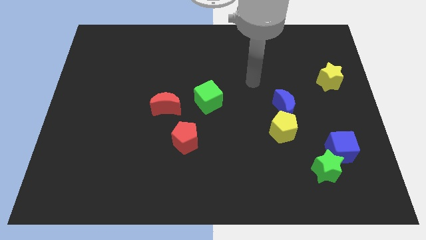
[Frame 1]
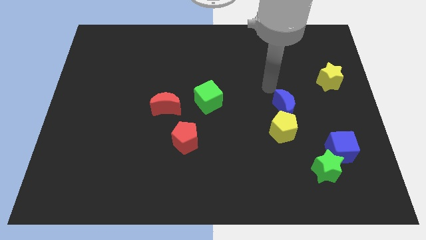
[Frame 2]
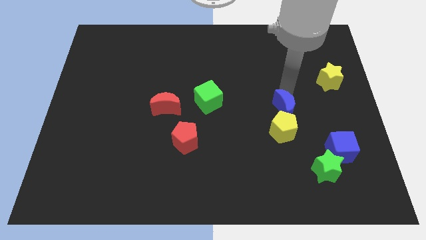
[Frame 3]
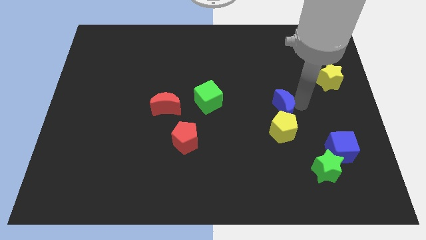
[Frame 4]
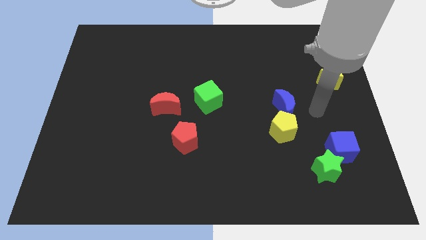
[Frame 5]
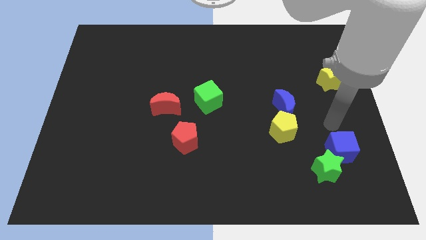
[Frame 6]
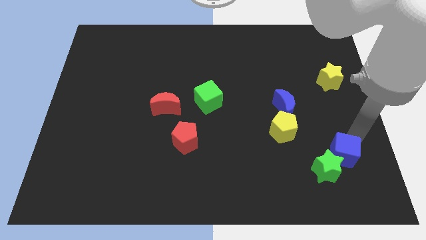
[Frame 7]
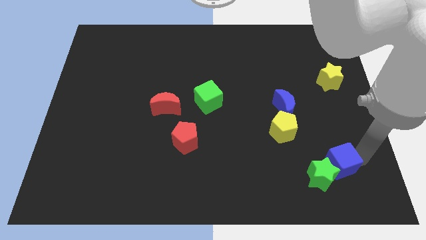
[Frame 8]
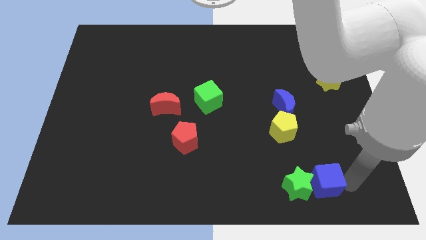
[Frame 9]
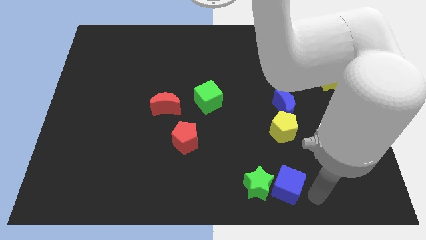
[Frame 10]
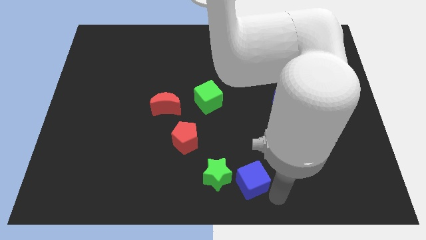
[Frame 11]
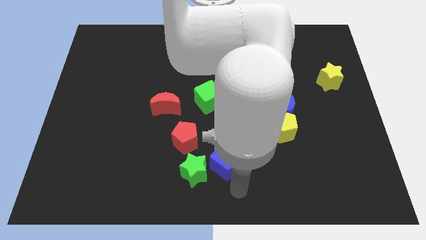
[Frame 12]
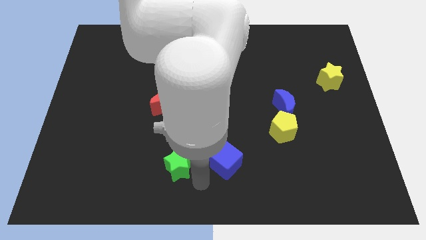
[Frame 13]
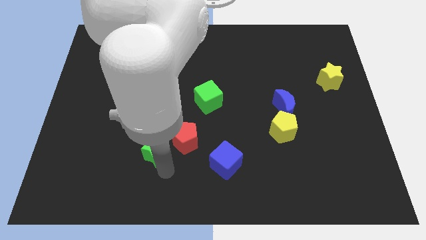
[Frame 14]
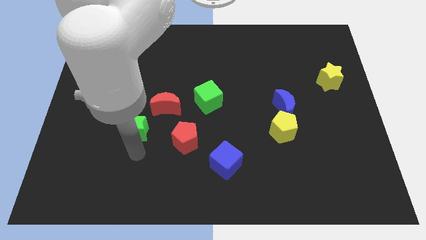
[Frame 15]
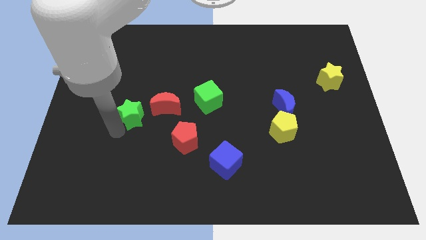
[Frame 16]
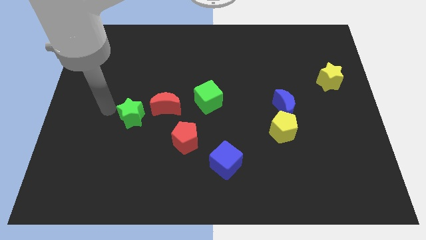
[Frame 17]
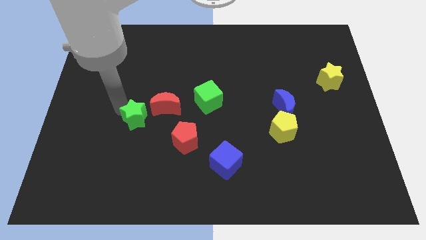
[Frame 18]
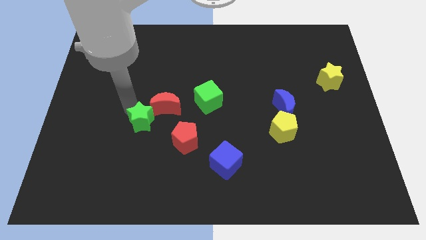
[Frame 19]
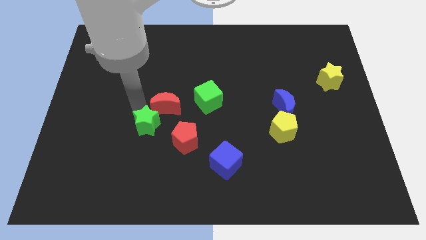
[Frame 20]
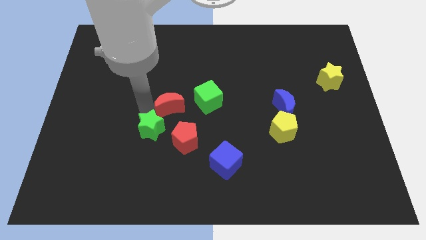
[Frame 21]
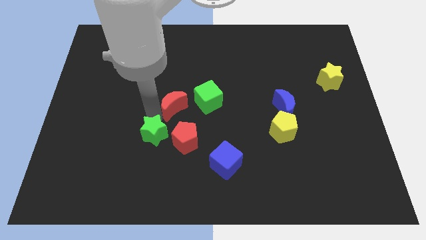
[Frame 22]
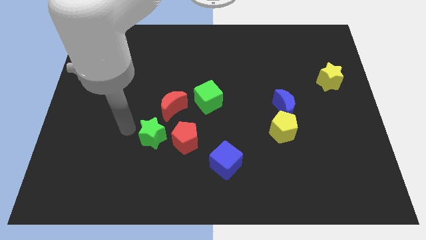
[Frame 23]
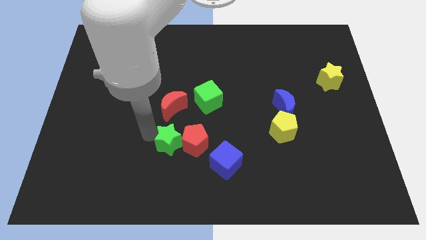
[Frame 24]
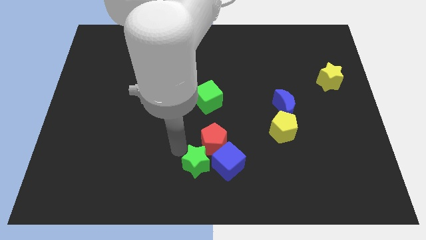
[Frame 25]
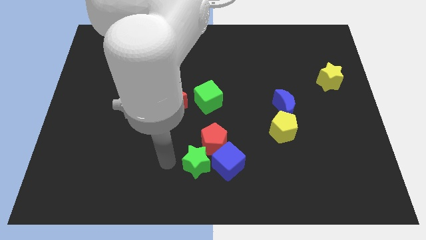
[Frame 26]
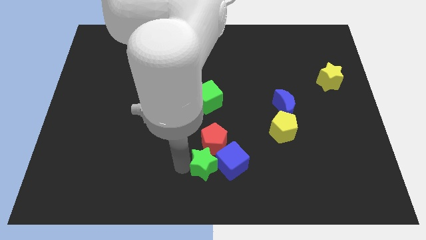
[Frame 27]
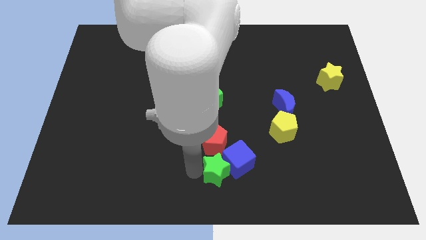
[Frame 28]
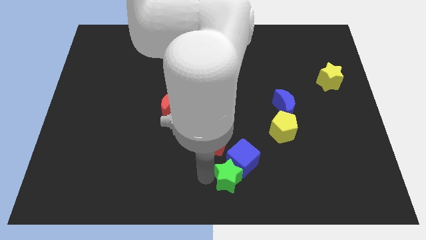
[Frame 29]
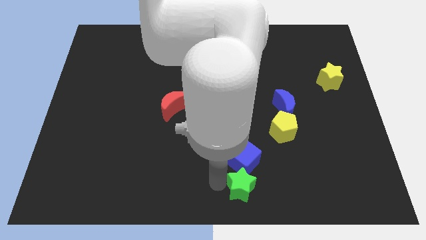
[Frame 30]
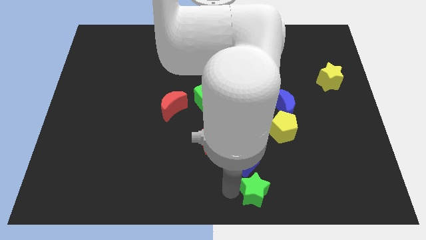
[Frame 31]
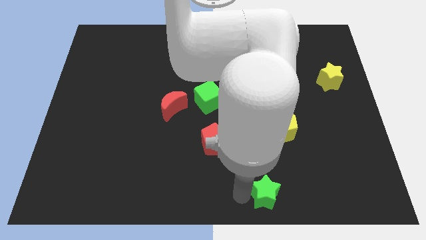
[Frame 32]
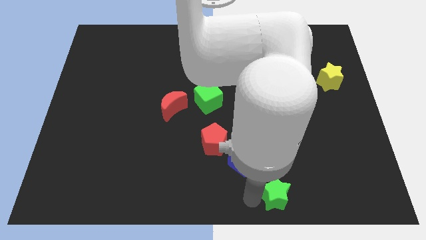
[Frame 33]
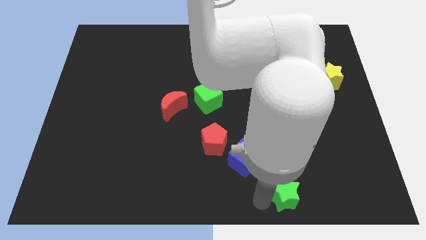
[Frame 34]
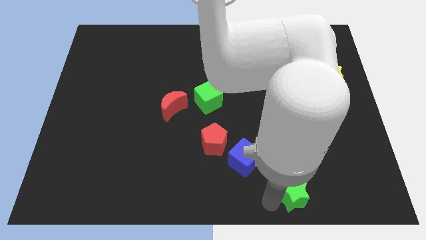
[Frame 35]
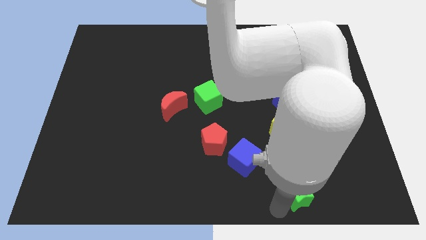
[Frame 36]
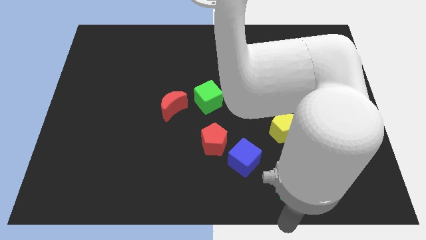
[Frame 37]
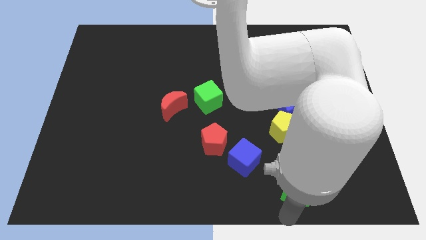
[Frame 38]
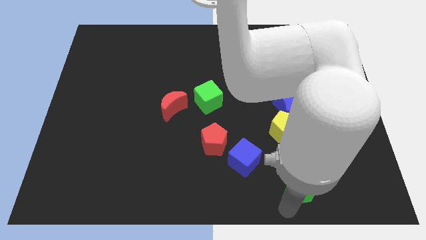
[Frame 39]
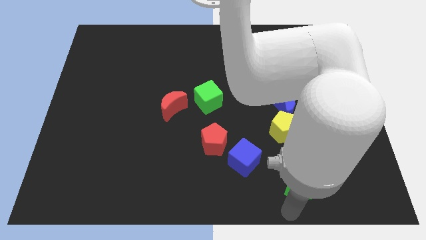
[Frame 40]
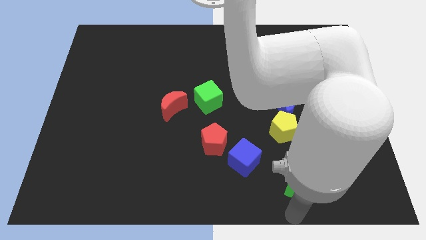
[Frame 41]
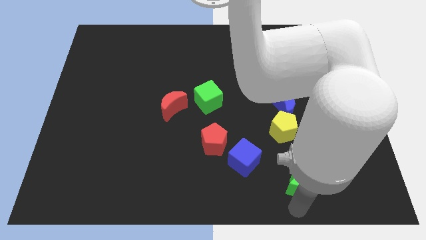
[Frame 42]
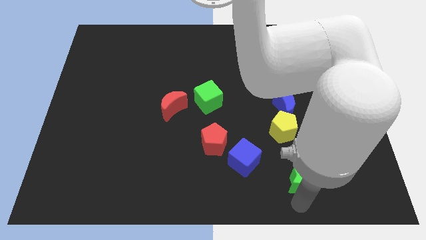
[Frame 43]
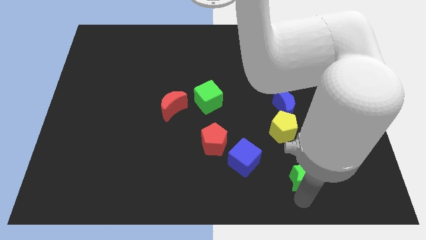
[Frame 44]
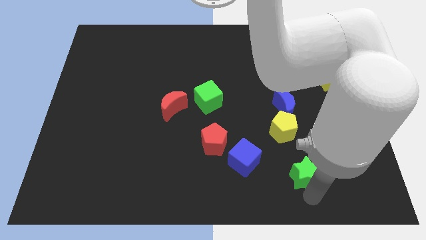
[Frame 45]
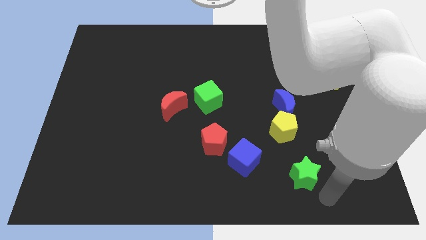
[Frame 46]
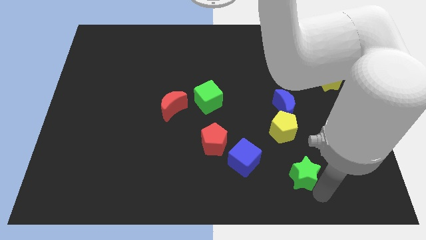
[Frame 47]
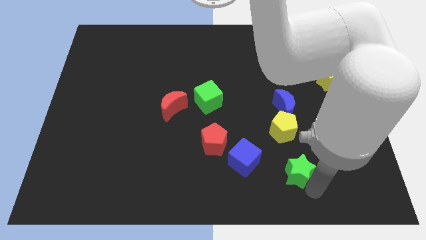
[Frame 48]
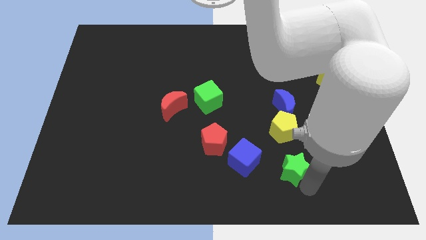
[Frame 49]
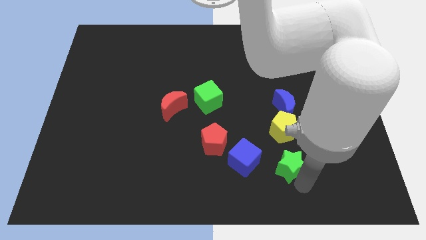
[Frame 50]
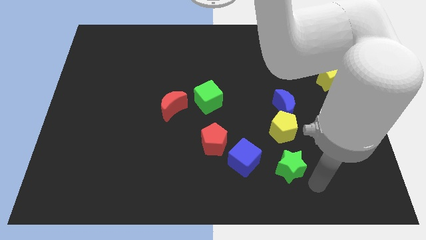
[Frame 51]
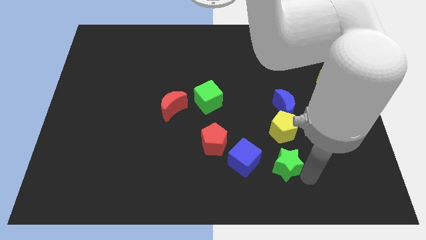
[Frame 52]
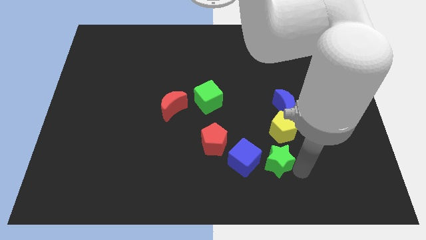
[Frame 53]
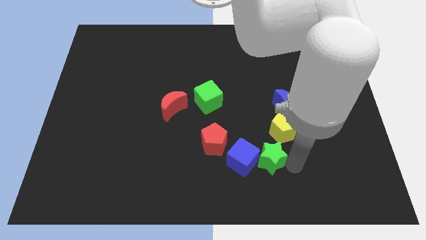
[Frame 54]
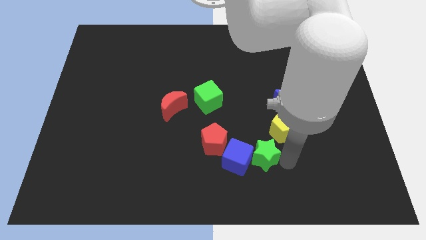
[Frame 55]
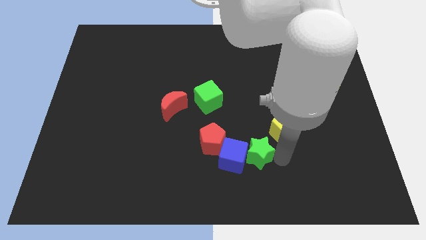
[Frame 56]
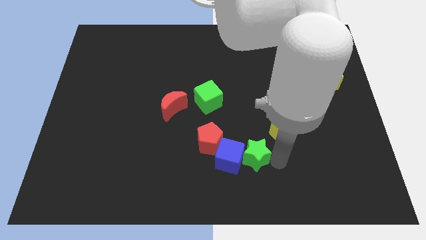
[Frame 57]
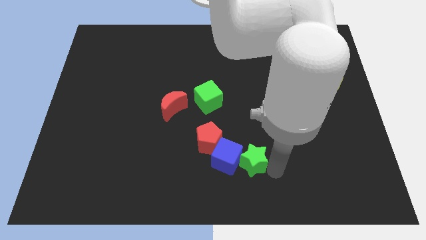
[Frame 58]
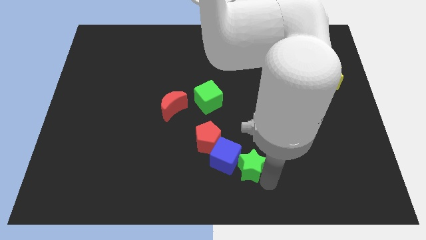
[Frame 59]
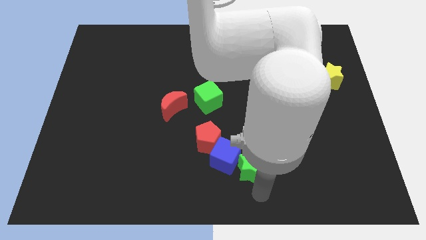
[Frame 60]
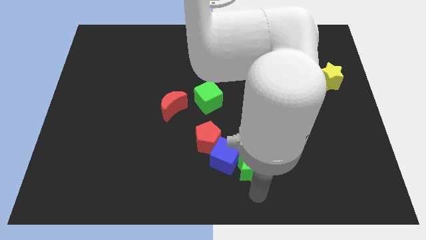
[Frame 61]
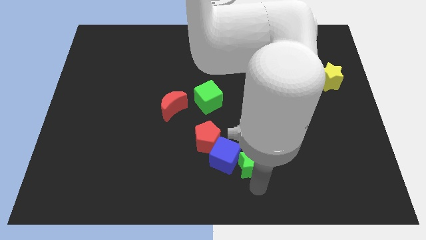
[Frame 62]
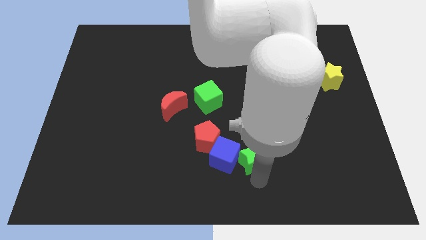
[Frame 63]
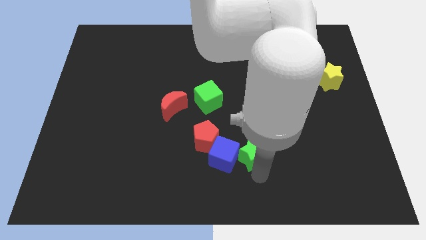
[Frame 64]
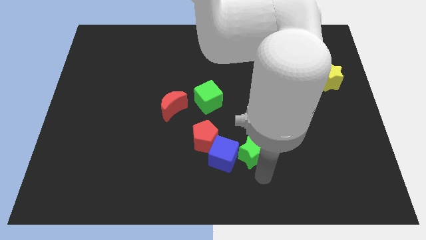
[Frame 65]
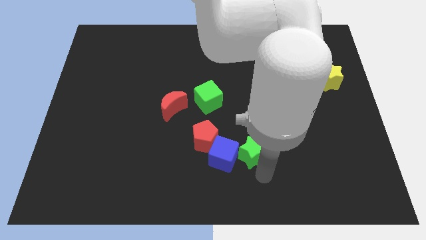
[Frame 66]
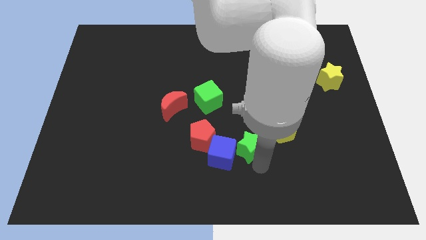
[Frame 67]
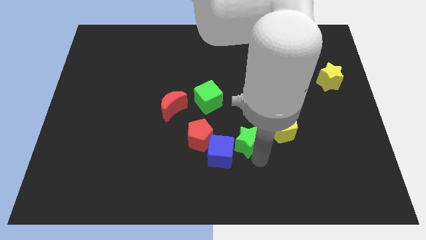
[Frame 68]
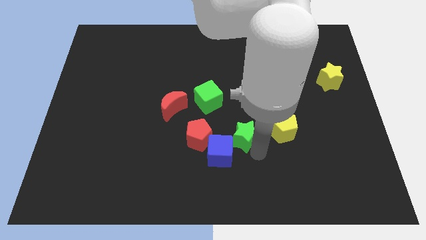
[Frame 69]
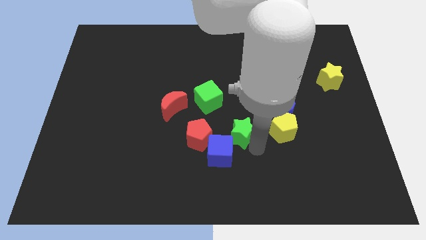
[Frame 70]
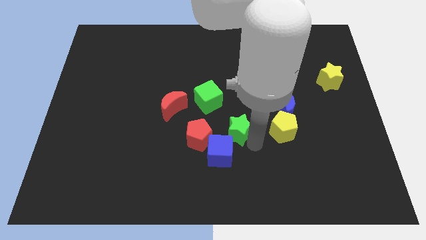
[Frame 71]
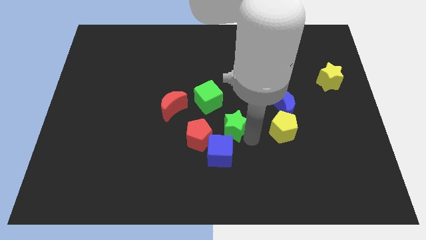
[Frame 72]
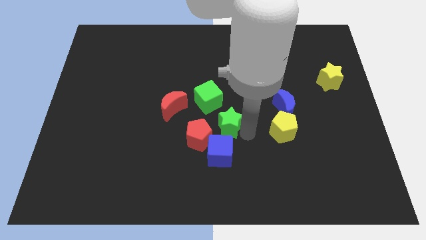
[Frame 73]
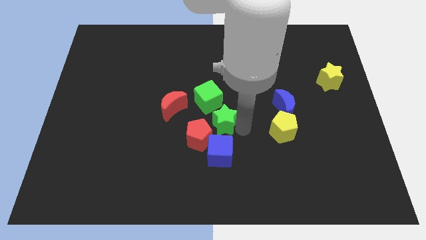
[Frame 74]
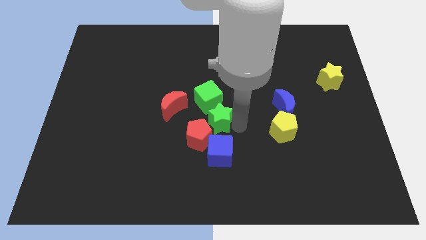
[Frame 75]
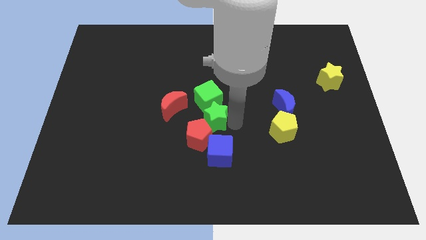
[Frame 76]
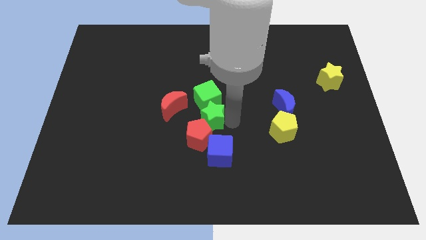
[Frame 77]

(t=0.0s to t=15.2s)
put the green star to the bottom left side of the green cube
